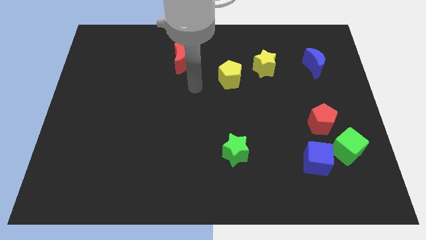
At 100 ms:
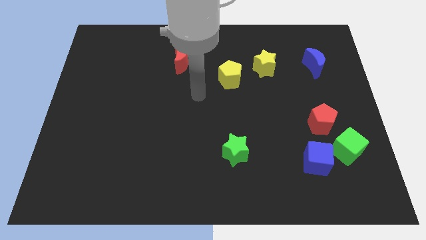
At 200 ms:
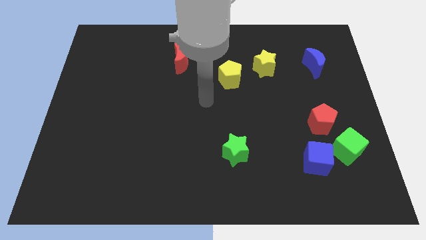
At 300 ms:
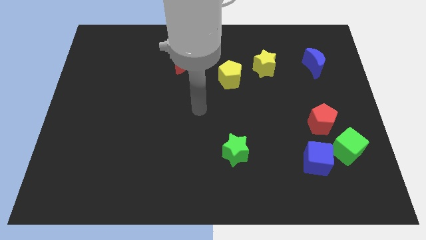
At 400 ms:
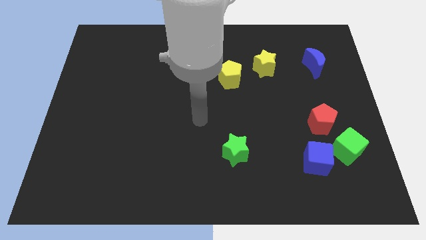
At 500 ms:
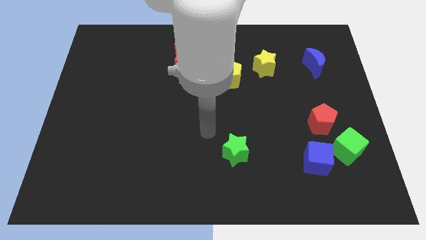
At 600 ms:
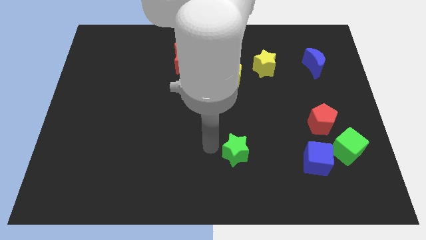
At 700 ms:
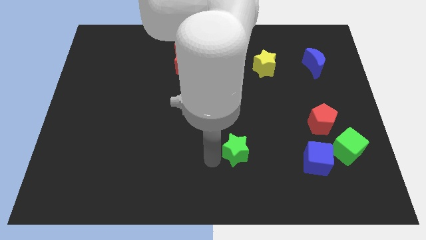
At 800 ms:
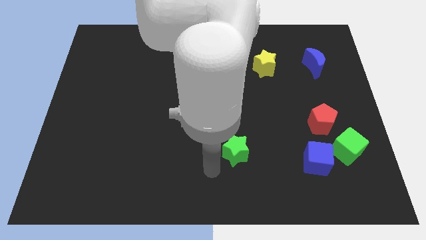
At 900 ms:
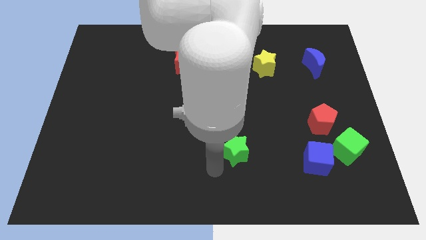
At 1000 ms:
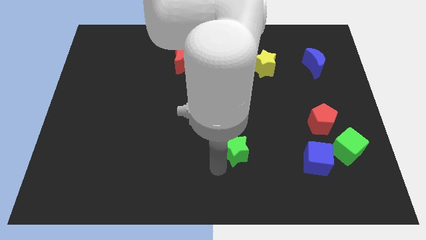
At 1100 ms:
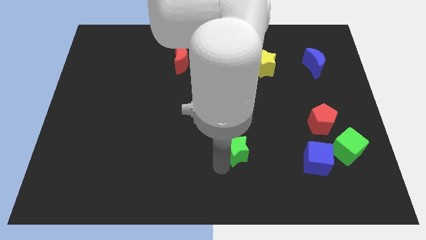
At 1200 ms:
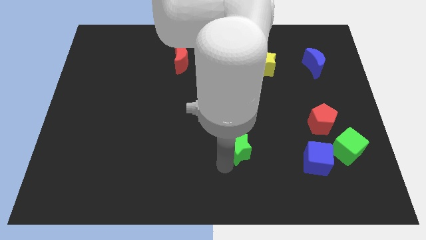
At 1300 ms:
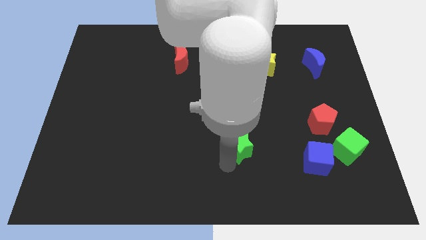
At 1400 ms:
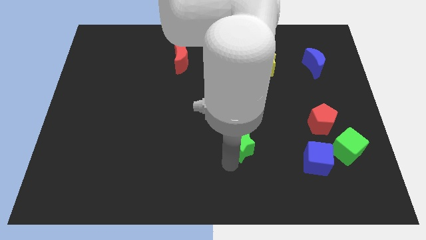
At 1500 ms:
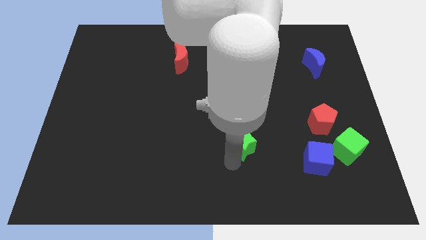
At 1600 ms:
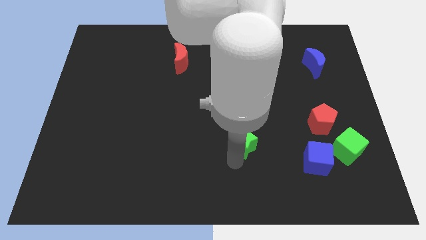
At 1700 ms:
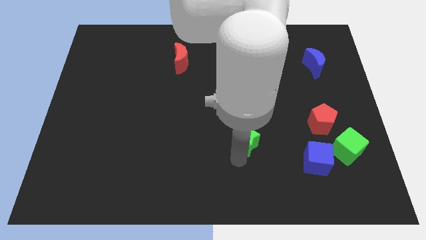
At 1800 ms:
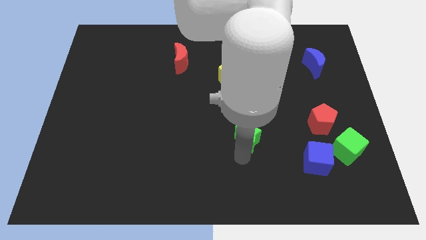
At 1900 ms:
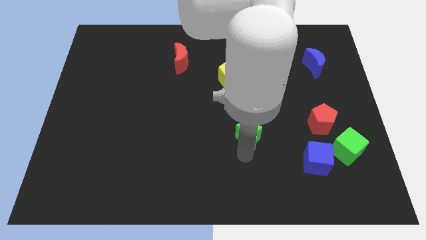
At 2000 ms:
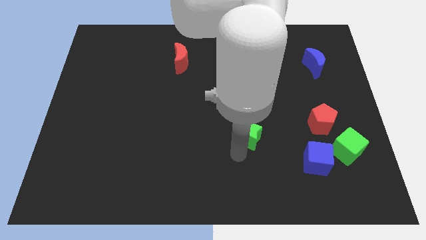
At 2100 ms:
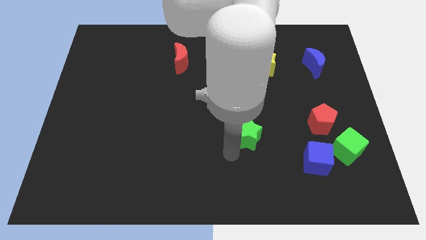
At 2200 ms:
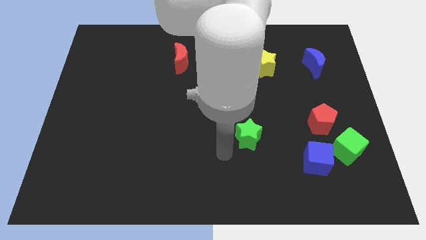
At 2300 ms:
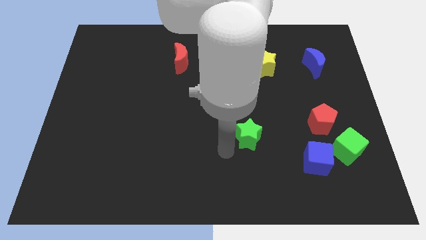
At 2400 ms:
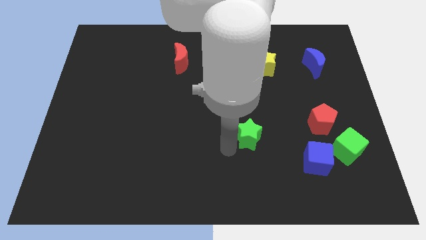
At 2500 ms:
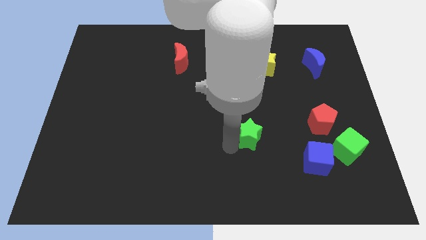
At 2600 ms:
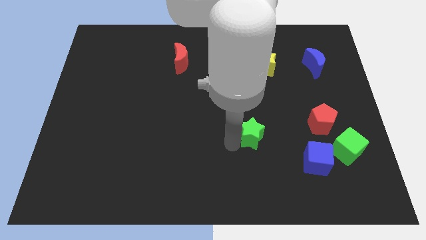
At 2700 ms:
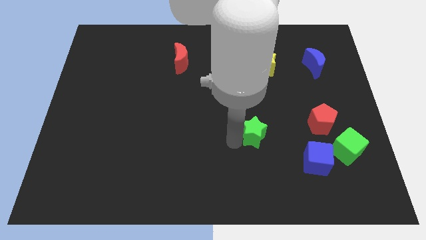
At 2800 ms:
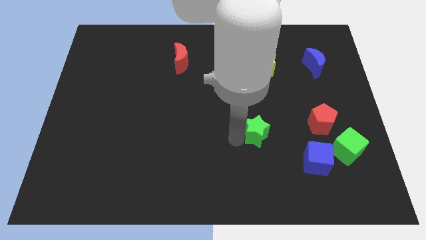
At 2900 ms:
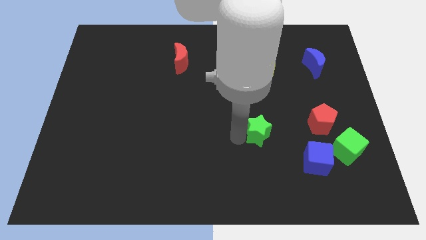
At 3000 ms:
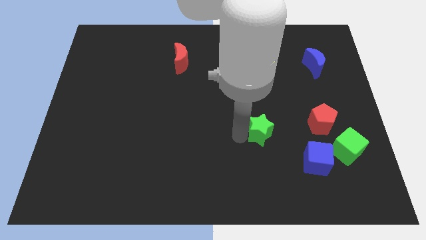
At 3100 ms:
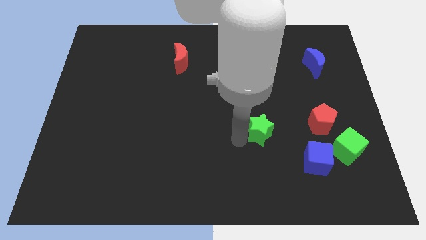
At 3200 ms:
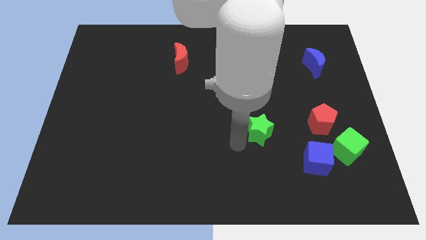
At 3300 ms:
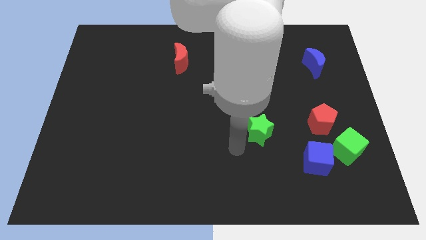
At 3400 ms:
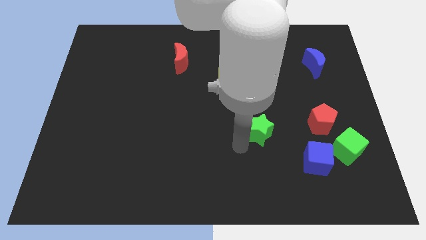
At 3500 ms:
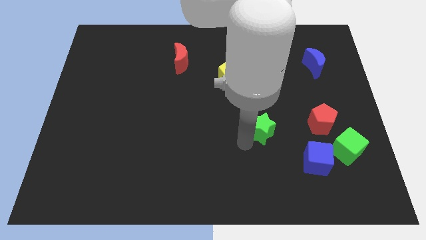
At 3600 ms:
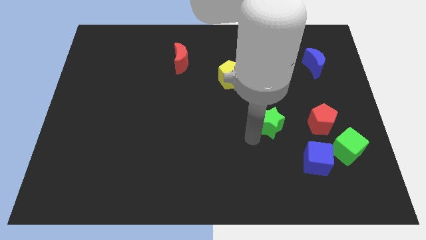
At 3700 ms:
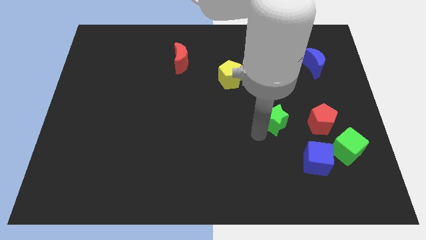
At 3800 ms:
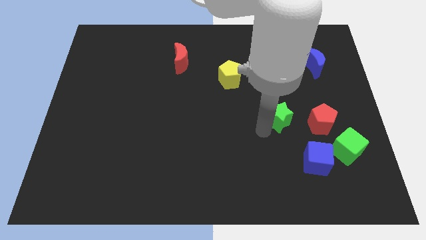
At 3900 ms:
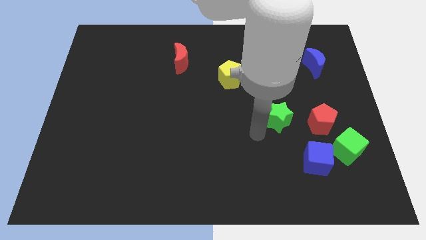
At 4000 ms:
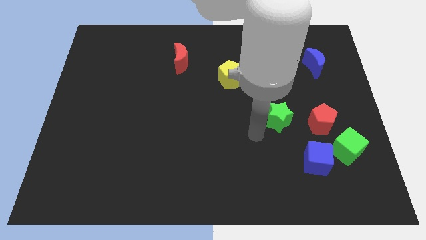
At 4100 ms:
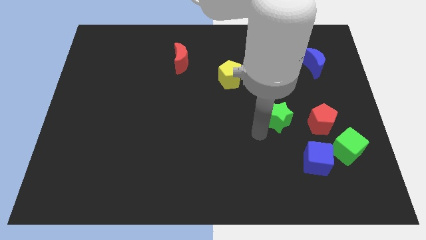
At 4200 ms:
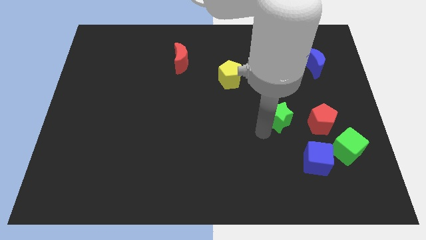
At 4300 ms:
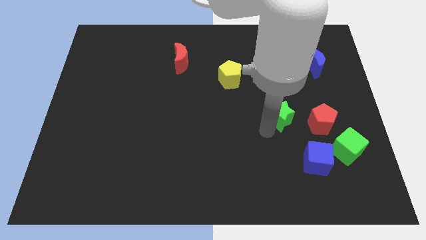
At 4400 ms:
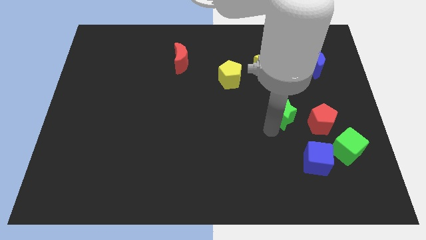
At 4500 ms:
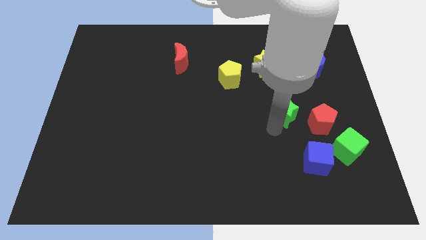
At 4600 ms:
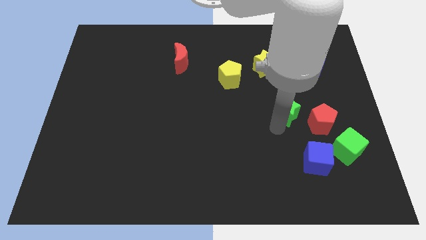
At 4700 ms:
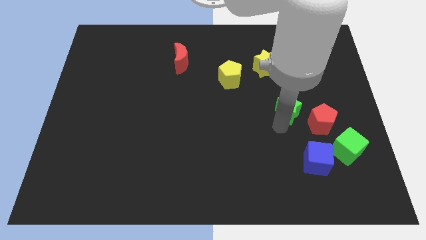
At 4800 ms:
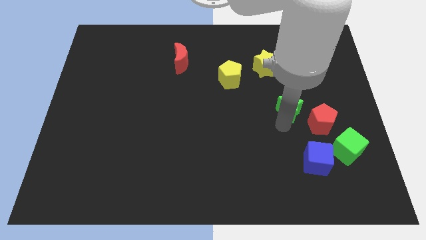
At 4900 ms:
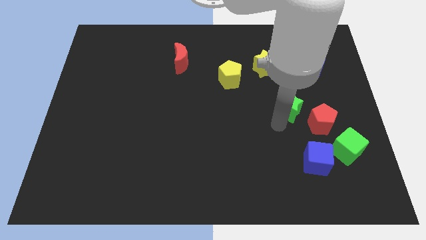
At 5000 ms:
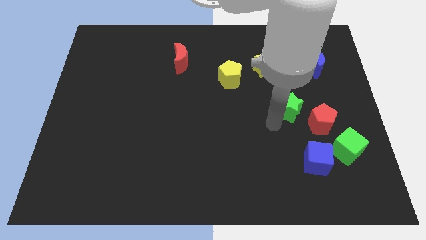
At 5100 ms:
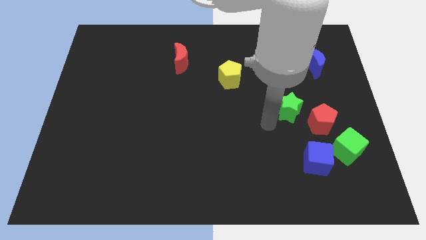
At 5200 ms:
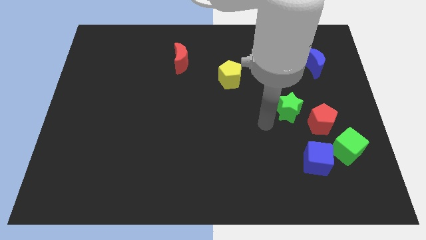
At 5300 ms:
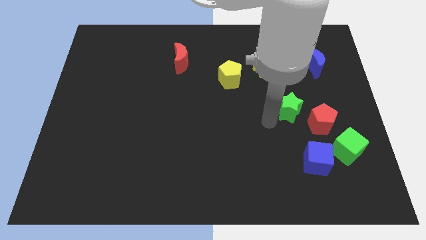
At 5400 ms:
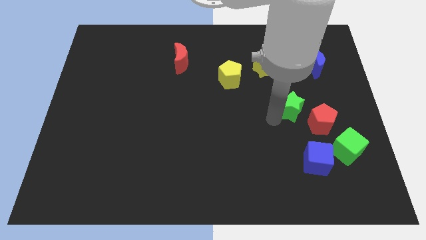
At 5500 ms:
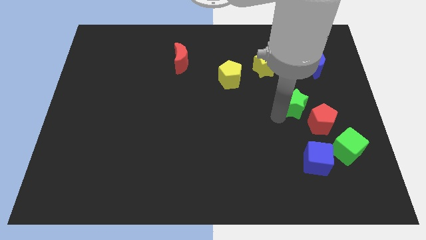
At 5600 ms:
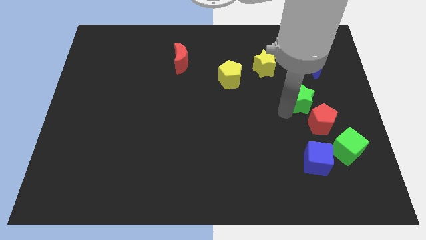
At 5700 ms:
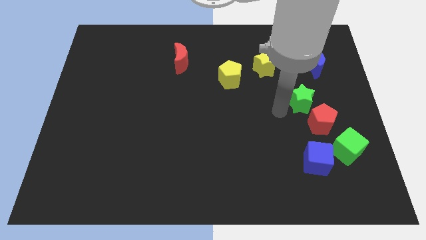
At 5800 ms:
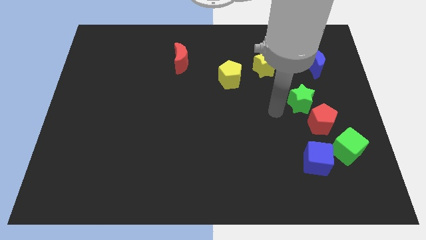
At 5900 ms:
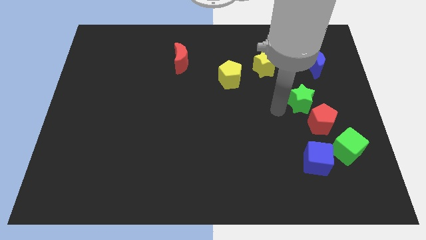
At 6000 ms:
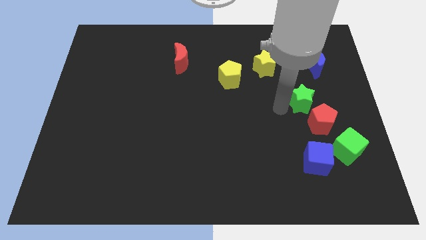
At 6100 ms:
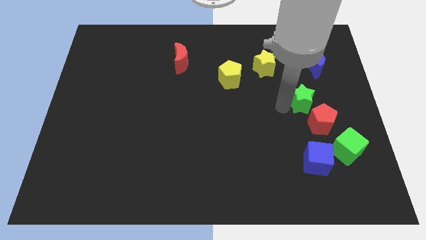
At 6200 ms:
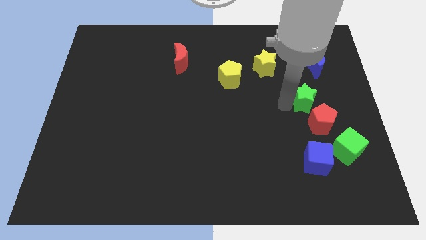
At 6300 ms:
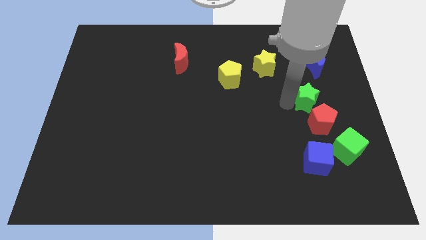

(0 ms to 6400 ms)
put the green star below the blue moon

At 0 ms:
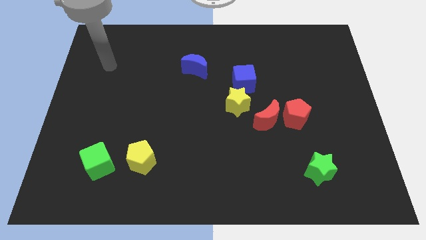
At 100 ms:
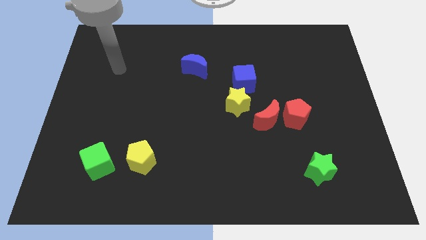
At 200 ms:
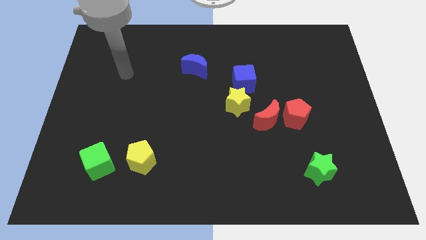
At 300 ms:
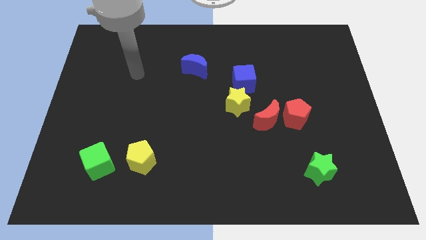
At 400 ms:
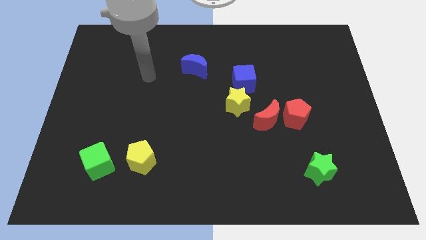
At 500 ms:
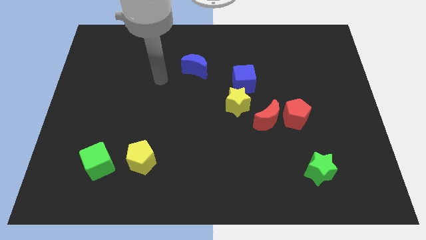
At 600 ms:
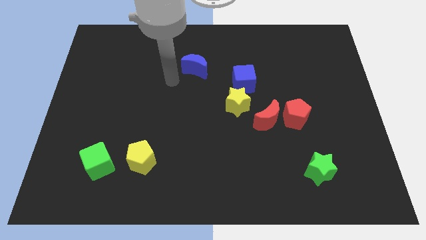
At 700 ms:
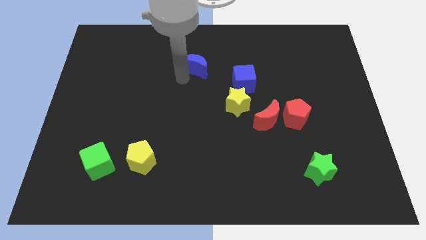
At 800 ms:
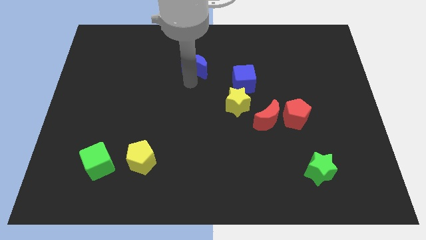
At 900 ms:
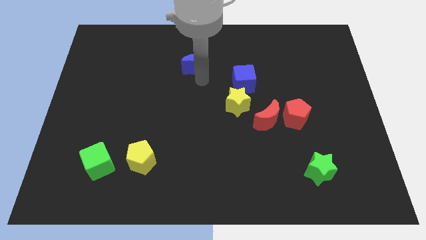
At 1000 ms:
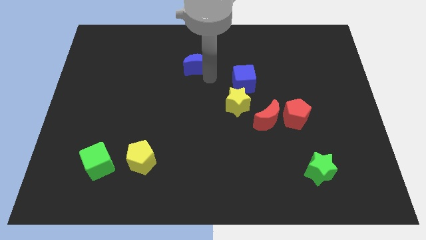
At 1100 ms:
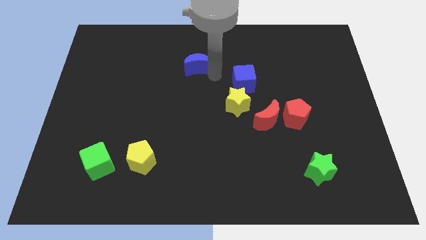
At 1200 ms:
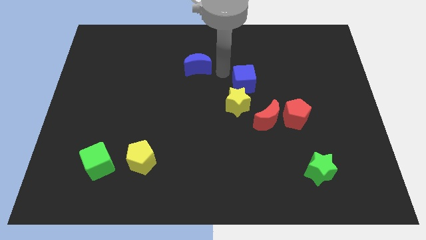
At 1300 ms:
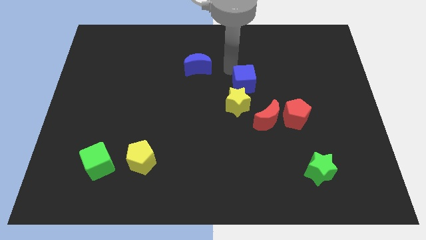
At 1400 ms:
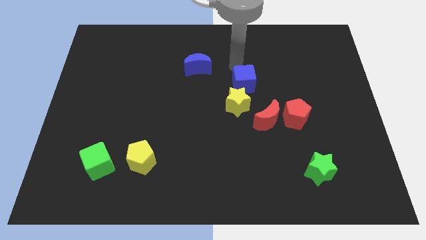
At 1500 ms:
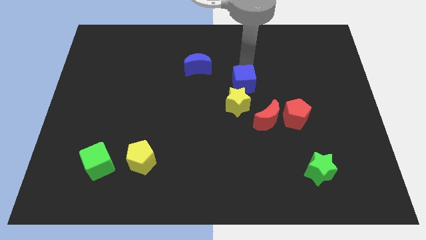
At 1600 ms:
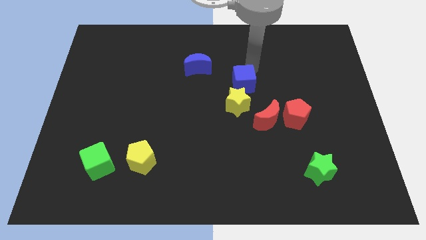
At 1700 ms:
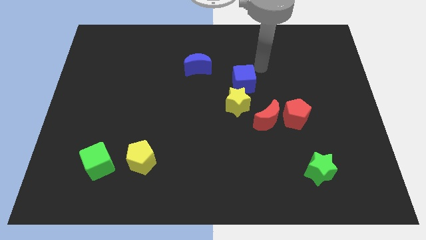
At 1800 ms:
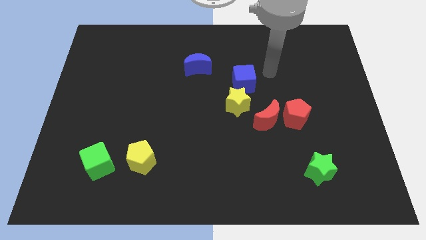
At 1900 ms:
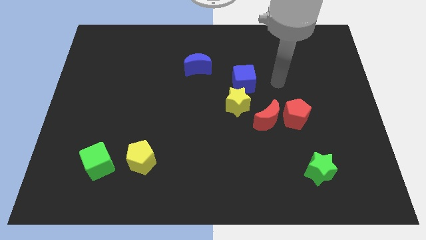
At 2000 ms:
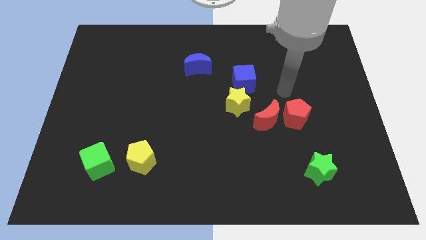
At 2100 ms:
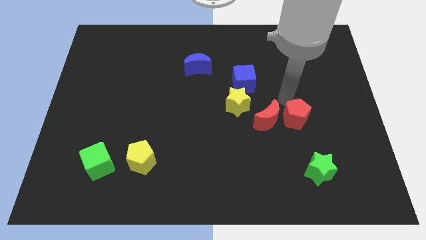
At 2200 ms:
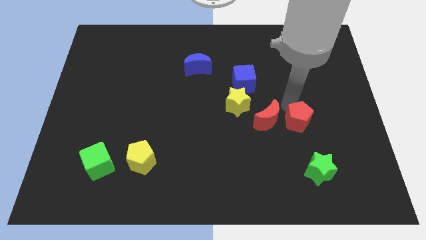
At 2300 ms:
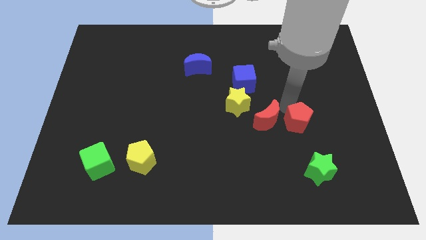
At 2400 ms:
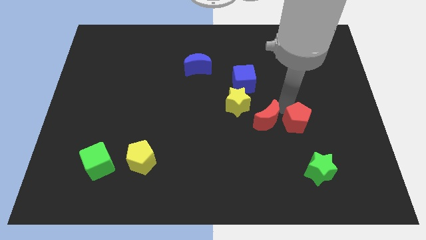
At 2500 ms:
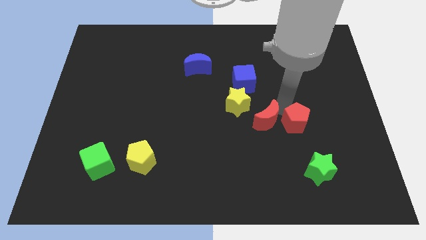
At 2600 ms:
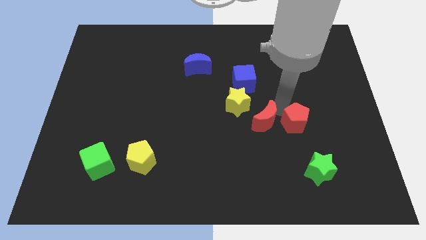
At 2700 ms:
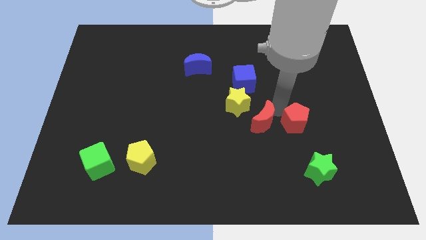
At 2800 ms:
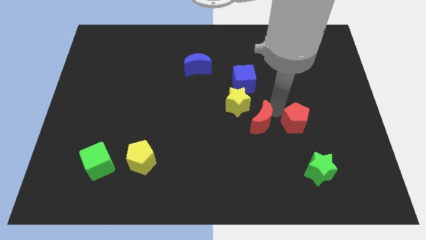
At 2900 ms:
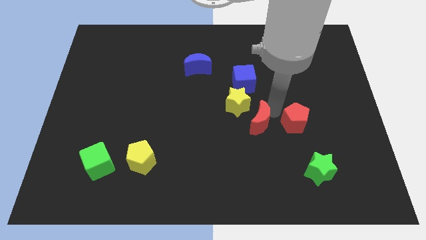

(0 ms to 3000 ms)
put the red moon to the bottom side of the yellow star
